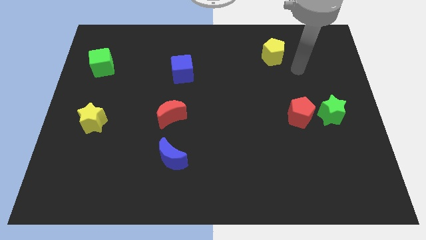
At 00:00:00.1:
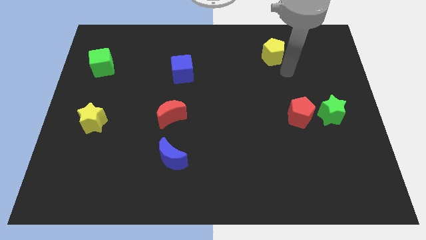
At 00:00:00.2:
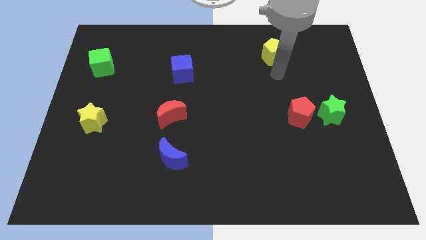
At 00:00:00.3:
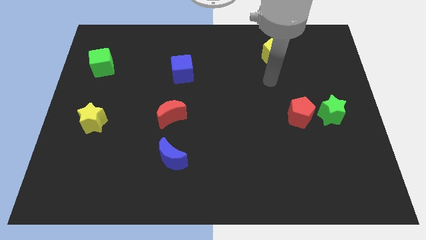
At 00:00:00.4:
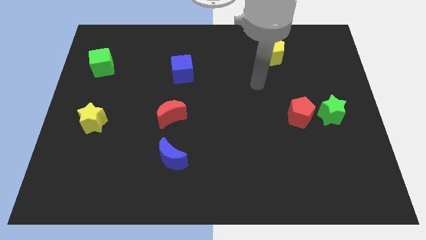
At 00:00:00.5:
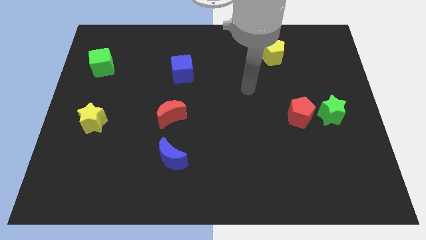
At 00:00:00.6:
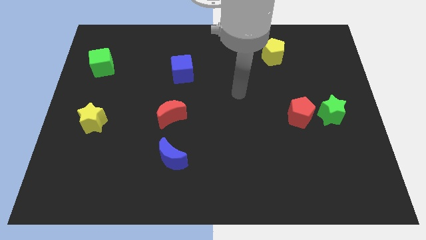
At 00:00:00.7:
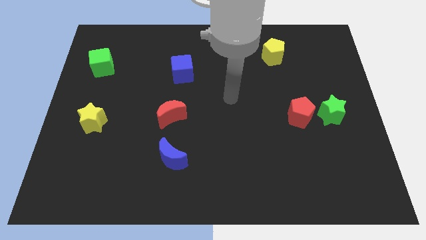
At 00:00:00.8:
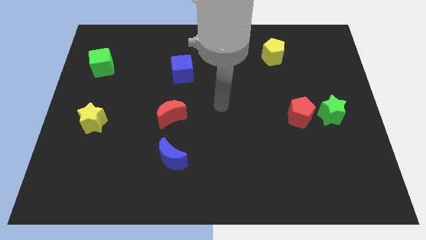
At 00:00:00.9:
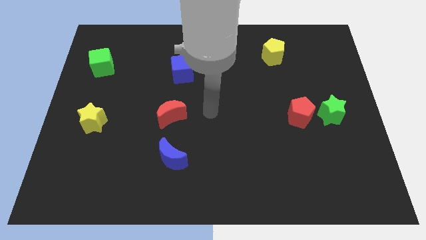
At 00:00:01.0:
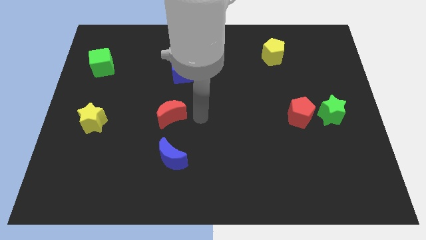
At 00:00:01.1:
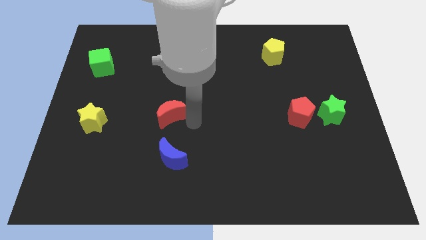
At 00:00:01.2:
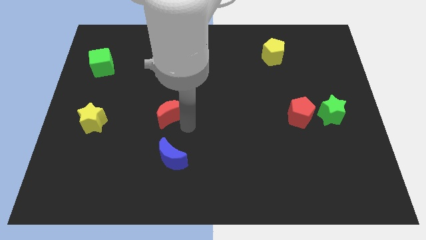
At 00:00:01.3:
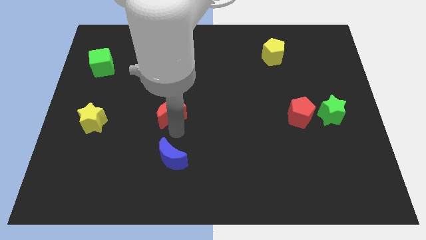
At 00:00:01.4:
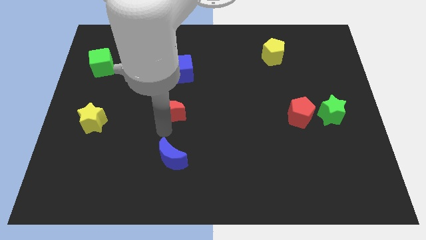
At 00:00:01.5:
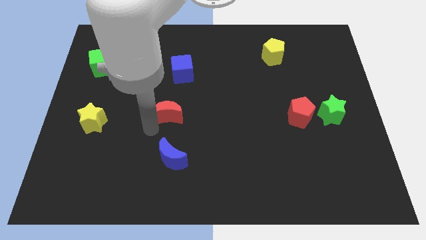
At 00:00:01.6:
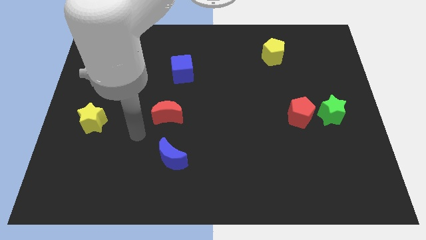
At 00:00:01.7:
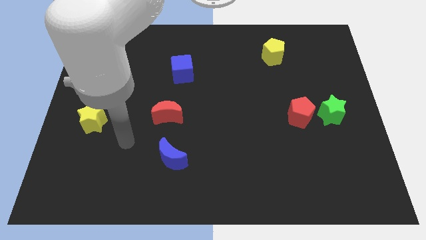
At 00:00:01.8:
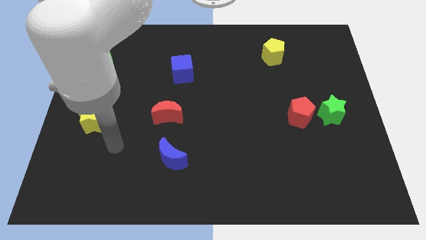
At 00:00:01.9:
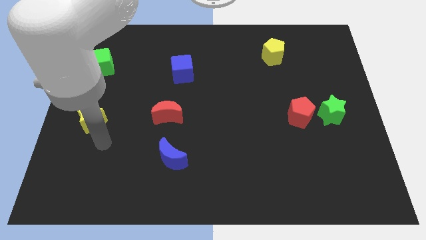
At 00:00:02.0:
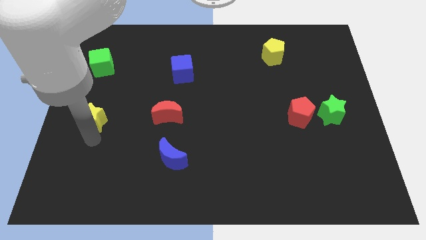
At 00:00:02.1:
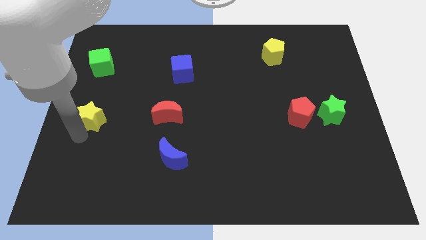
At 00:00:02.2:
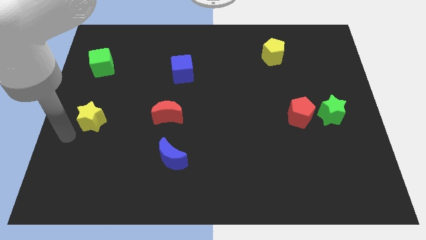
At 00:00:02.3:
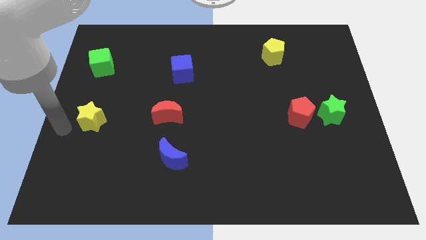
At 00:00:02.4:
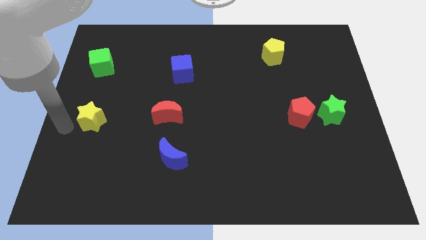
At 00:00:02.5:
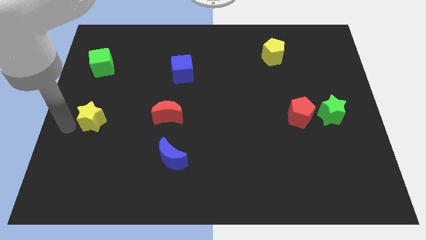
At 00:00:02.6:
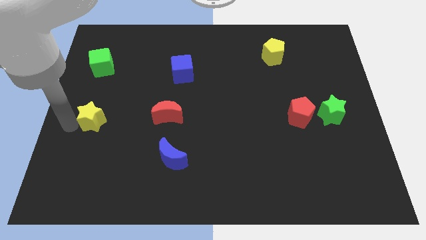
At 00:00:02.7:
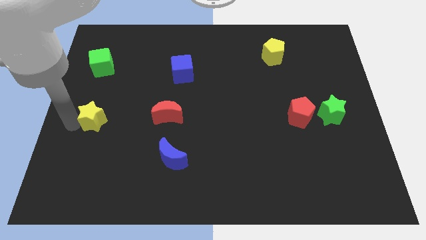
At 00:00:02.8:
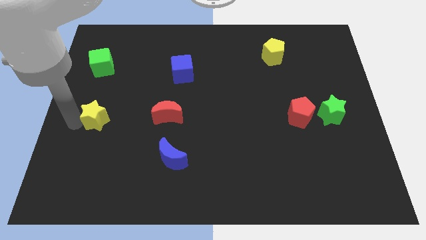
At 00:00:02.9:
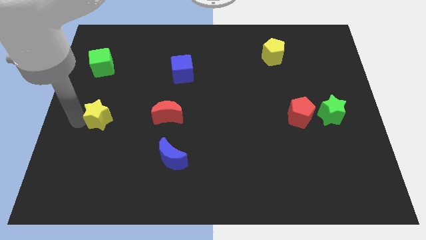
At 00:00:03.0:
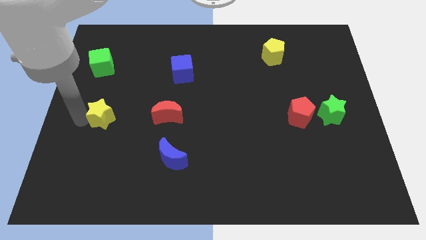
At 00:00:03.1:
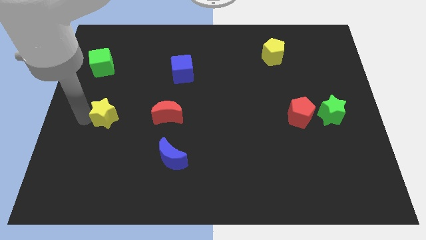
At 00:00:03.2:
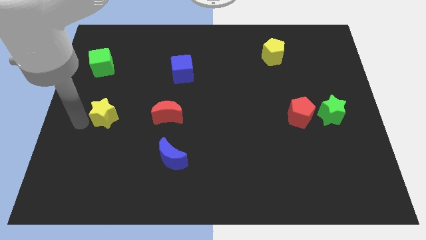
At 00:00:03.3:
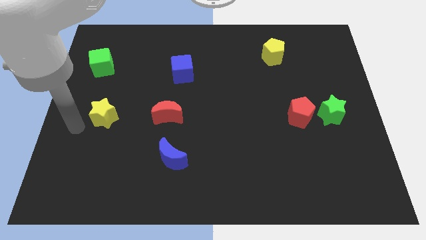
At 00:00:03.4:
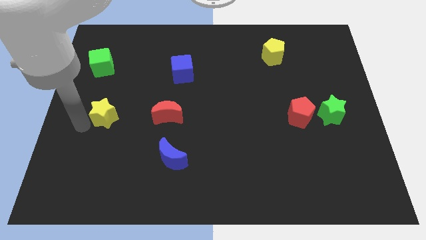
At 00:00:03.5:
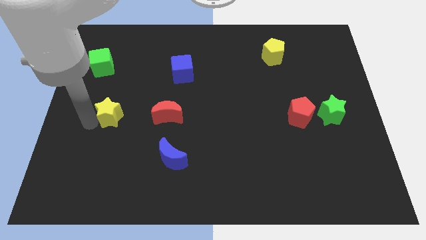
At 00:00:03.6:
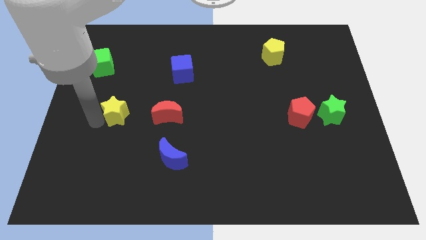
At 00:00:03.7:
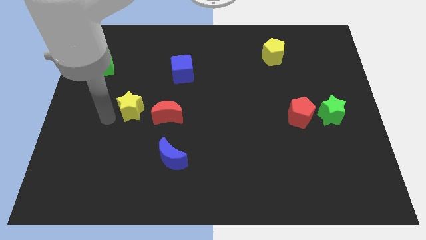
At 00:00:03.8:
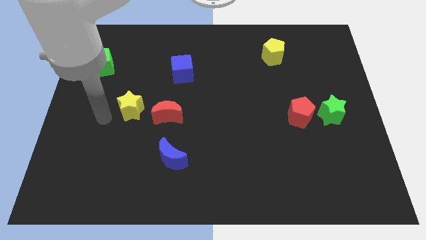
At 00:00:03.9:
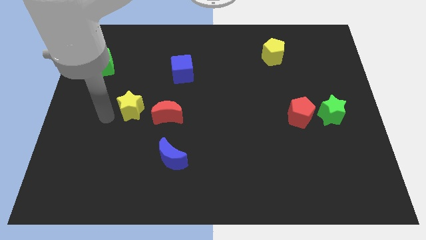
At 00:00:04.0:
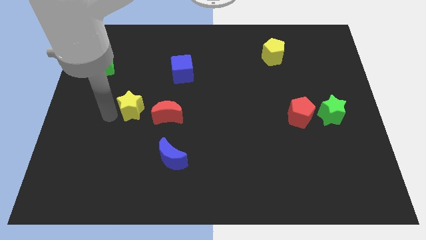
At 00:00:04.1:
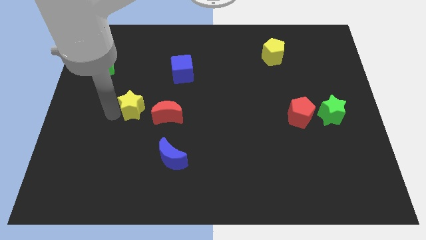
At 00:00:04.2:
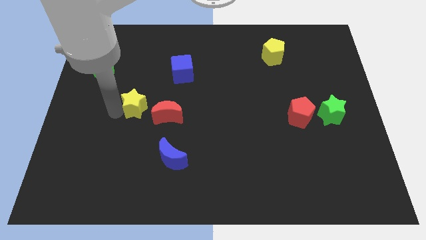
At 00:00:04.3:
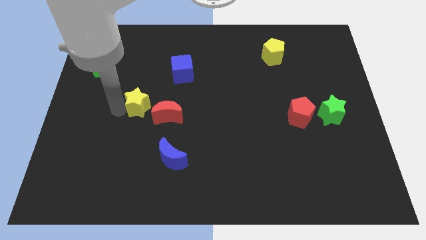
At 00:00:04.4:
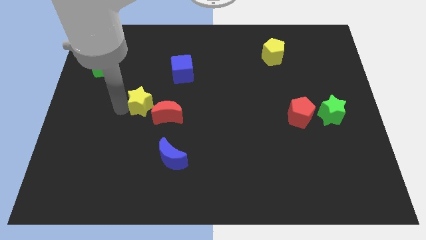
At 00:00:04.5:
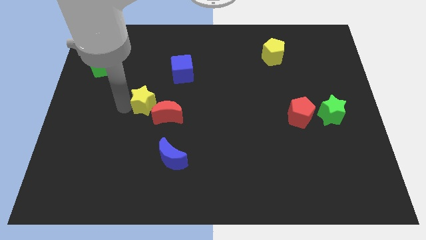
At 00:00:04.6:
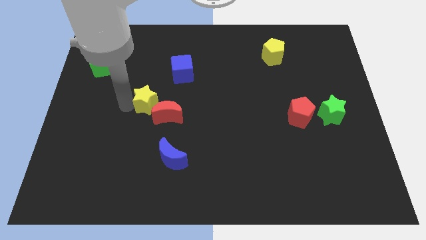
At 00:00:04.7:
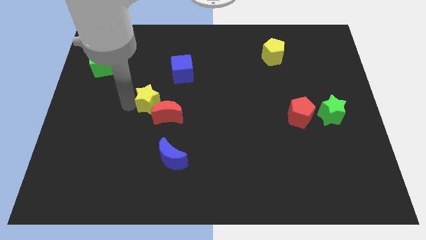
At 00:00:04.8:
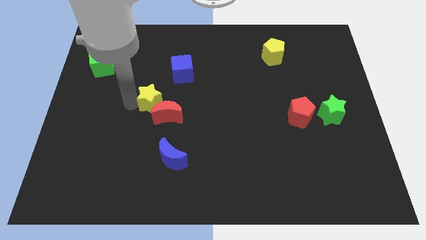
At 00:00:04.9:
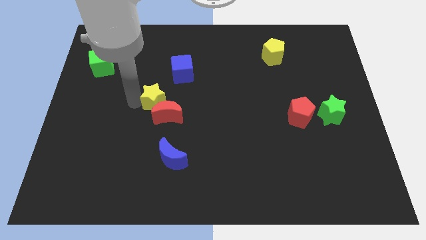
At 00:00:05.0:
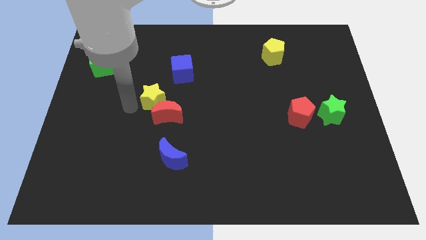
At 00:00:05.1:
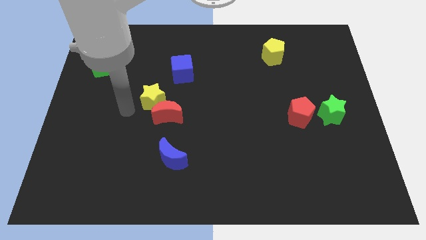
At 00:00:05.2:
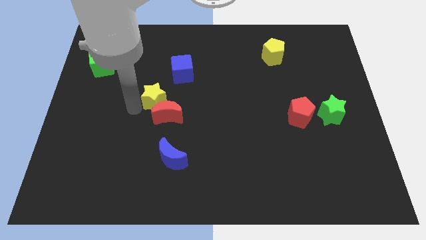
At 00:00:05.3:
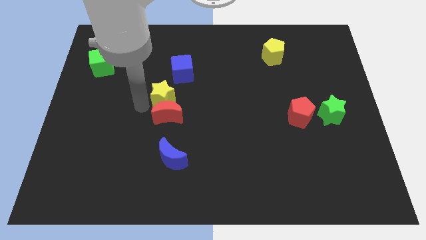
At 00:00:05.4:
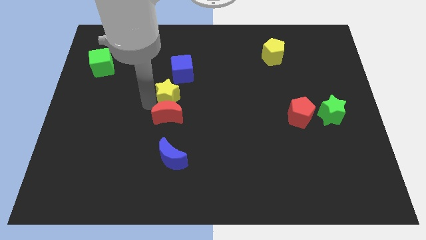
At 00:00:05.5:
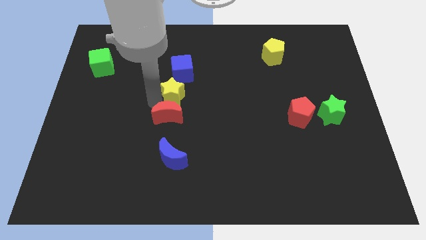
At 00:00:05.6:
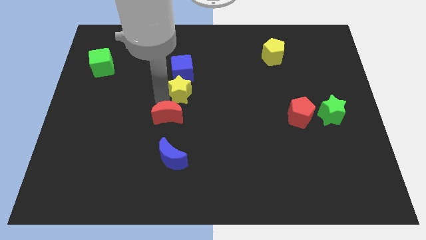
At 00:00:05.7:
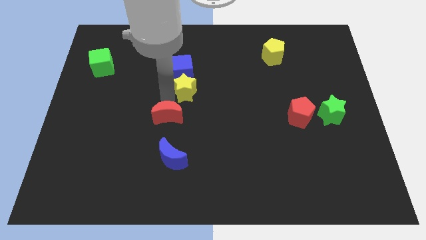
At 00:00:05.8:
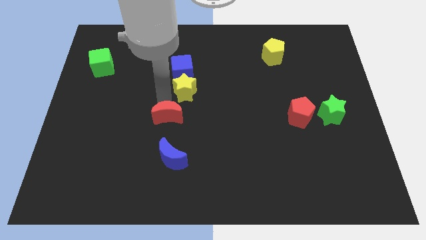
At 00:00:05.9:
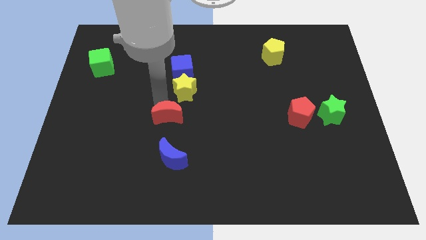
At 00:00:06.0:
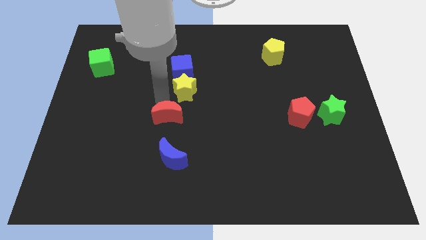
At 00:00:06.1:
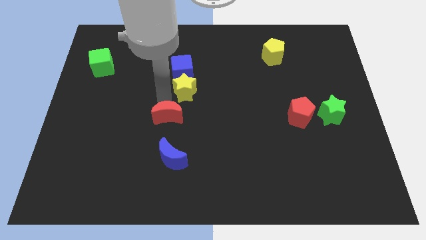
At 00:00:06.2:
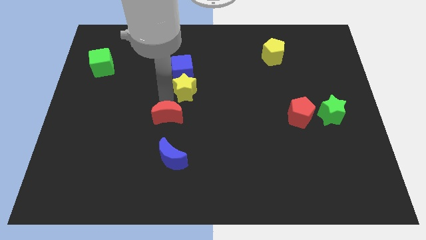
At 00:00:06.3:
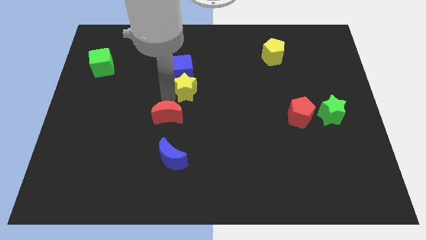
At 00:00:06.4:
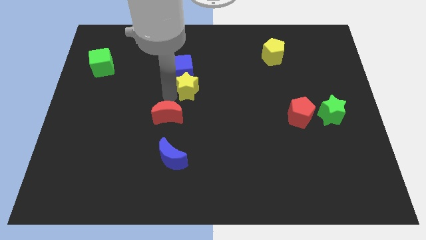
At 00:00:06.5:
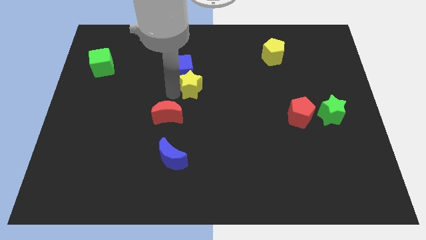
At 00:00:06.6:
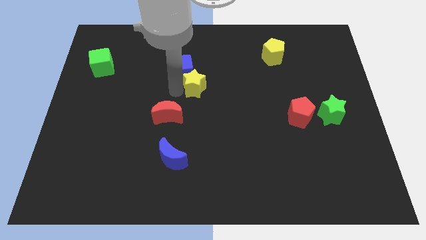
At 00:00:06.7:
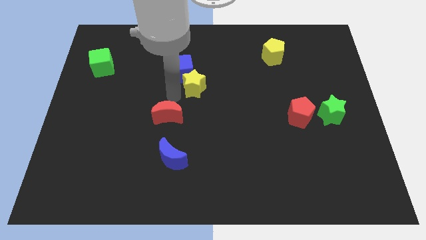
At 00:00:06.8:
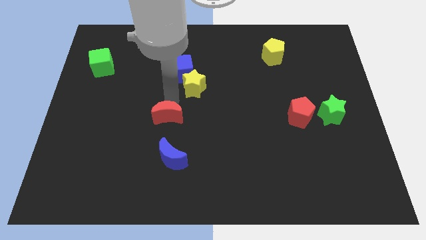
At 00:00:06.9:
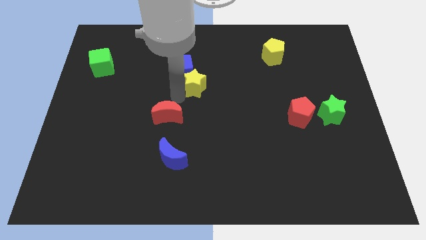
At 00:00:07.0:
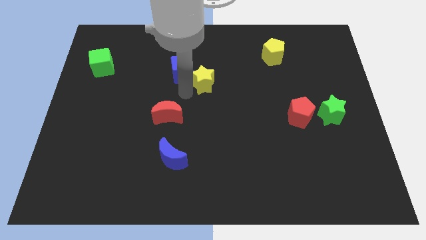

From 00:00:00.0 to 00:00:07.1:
push the yellow star right of the blue cube

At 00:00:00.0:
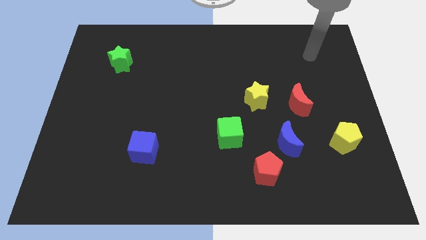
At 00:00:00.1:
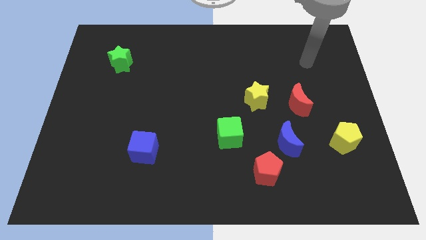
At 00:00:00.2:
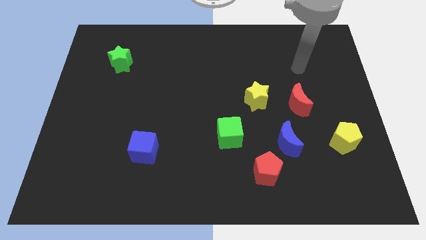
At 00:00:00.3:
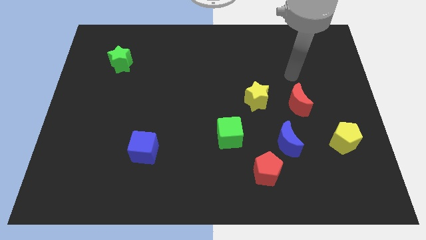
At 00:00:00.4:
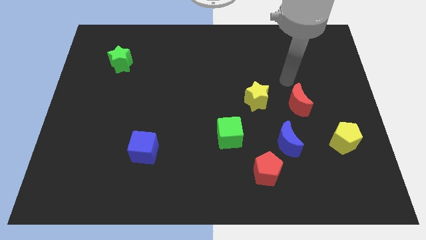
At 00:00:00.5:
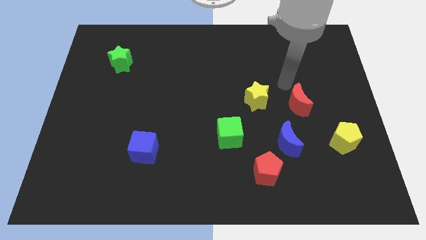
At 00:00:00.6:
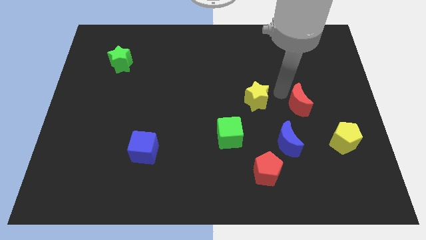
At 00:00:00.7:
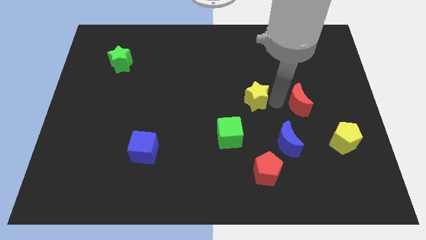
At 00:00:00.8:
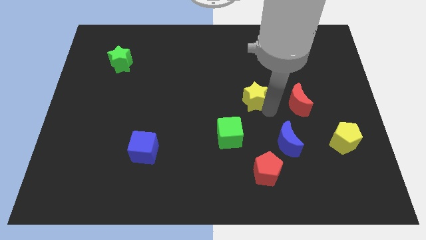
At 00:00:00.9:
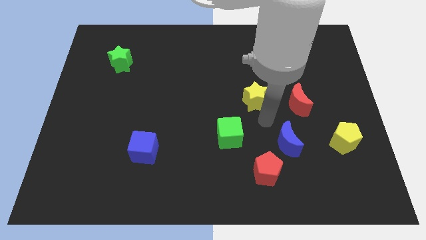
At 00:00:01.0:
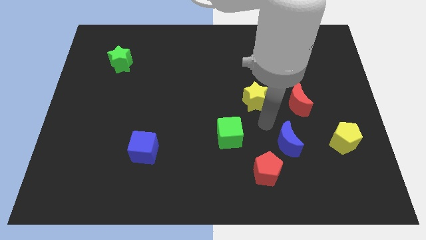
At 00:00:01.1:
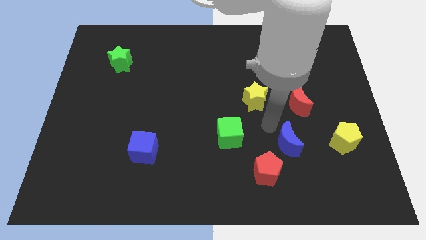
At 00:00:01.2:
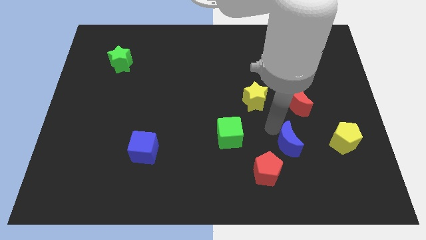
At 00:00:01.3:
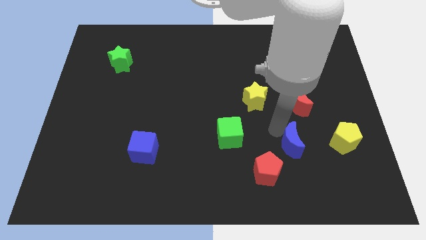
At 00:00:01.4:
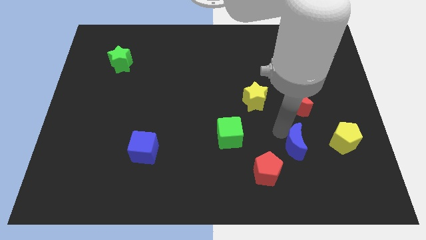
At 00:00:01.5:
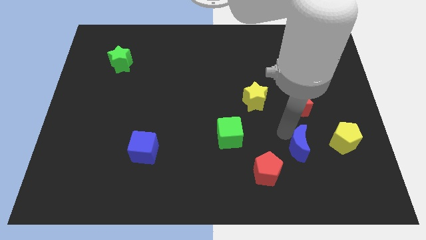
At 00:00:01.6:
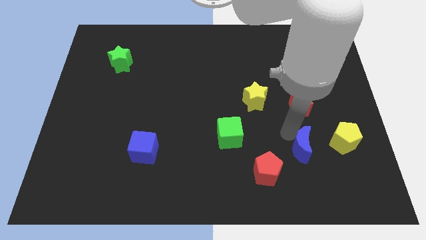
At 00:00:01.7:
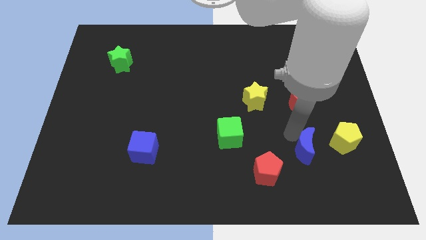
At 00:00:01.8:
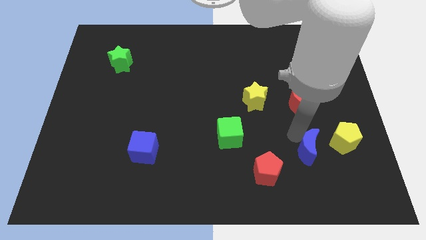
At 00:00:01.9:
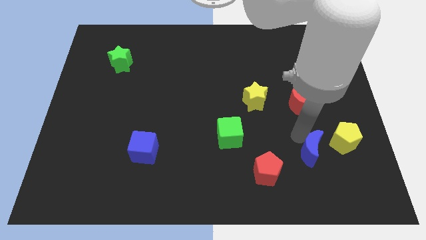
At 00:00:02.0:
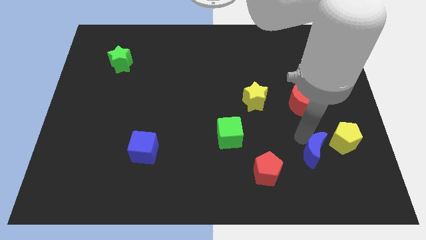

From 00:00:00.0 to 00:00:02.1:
slide the blue moon just right of the red pentagon
